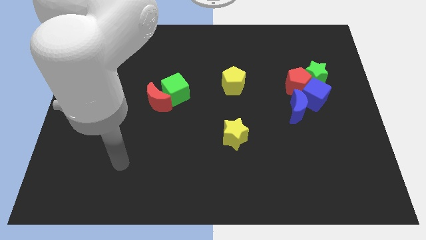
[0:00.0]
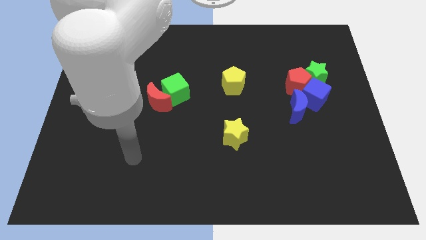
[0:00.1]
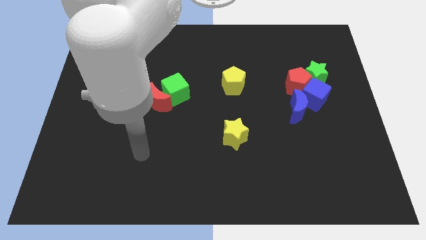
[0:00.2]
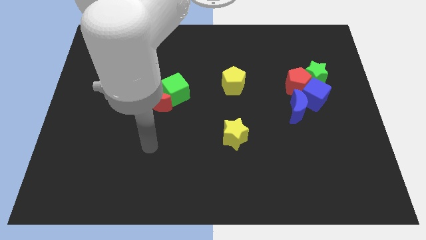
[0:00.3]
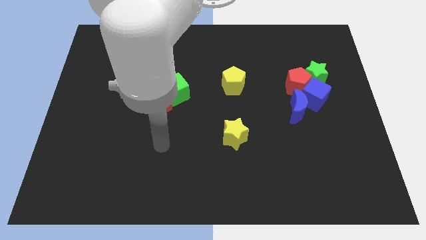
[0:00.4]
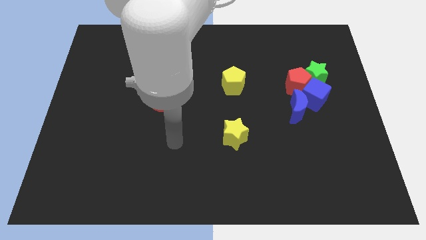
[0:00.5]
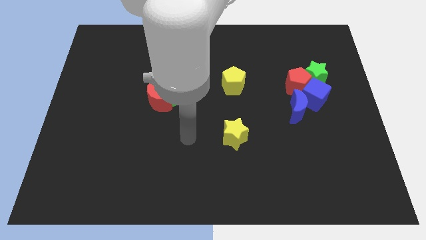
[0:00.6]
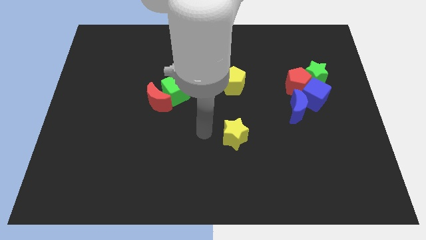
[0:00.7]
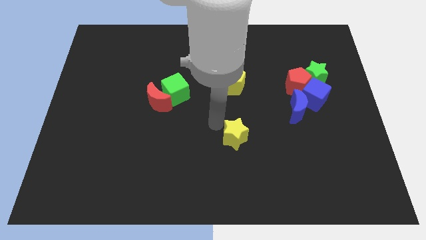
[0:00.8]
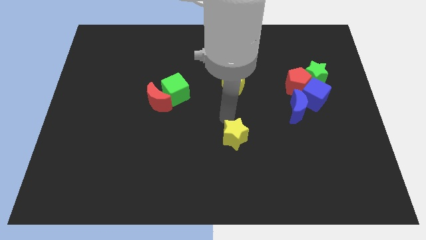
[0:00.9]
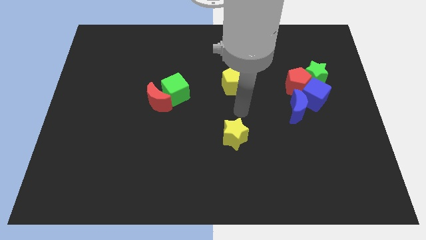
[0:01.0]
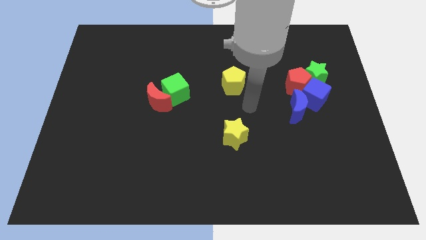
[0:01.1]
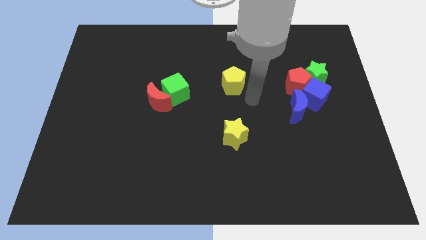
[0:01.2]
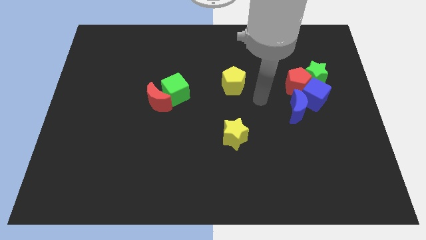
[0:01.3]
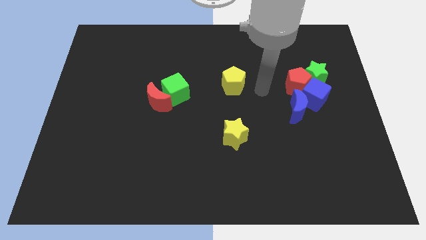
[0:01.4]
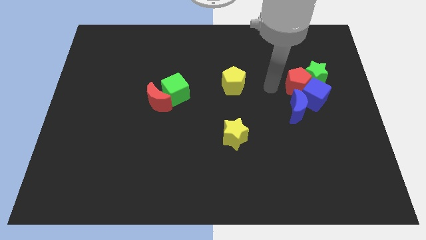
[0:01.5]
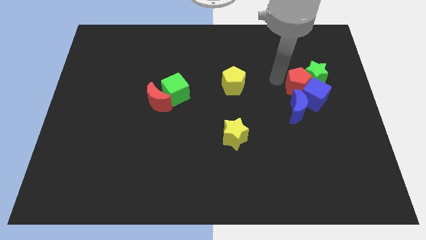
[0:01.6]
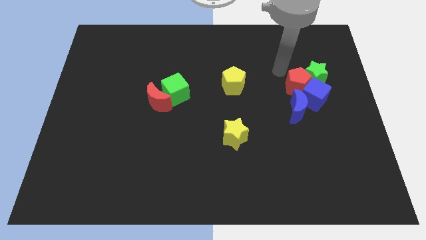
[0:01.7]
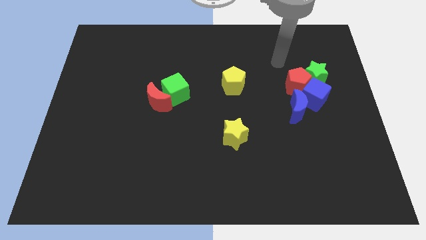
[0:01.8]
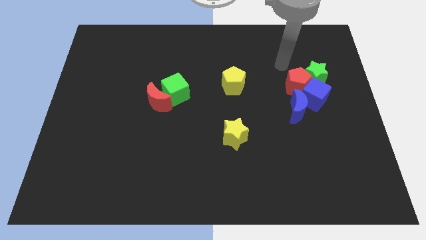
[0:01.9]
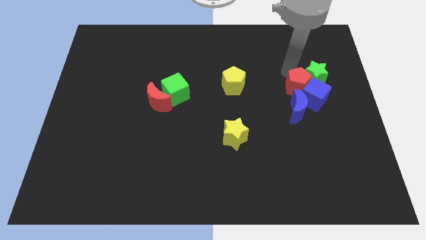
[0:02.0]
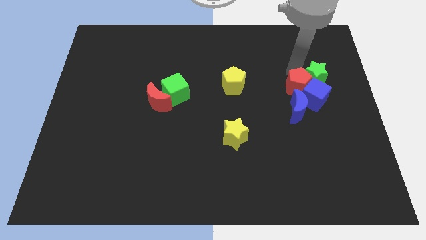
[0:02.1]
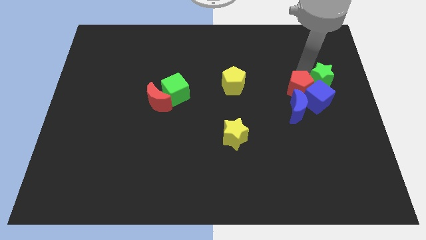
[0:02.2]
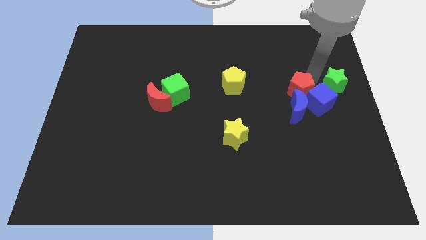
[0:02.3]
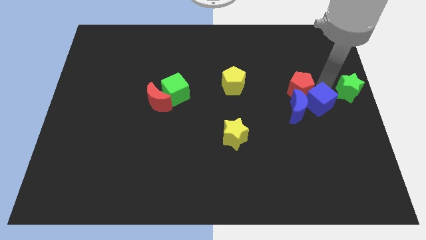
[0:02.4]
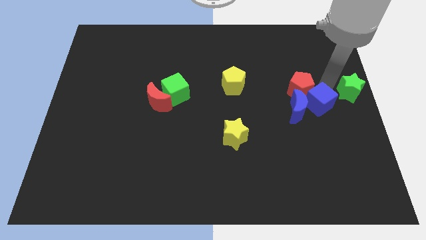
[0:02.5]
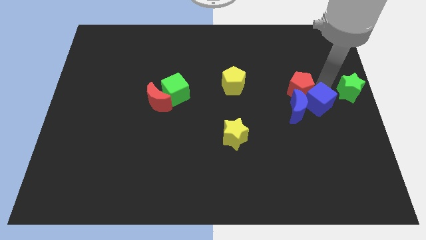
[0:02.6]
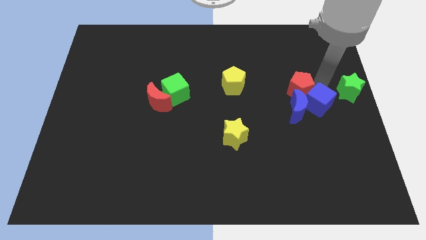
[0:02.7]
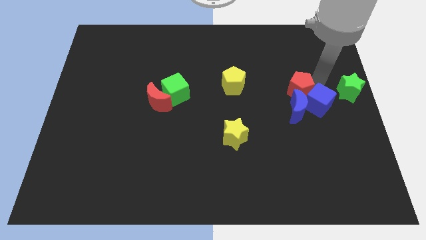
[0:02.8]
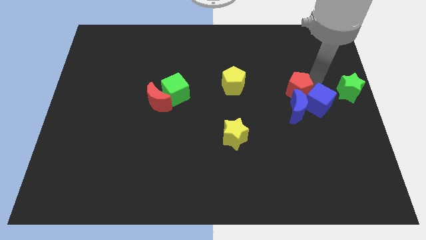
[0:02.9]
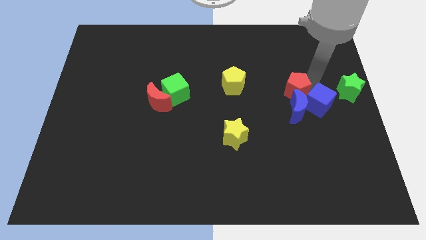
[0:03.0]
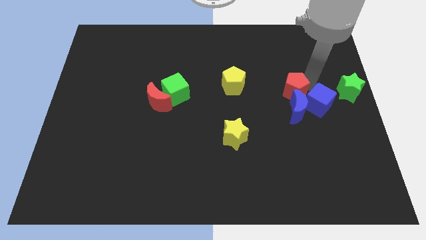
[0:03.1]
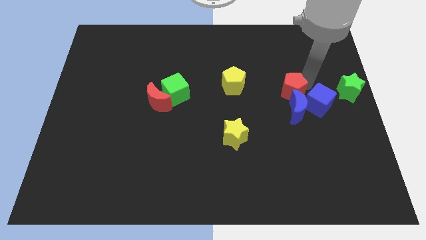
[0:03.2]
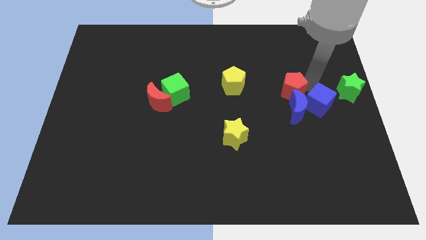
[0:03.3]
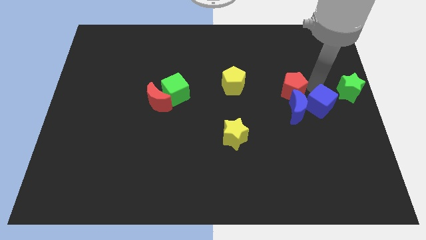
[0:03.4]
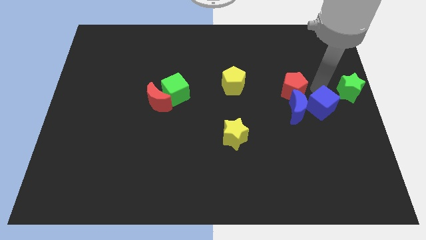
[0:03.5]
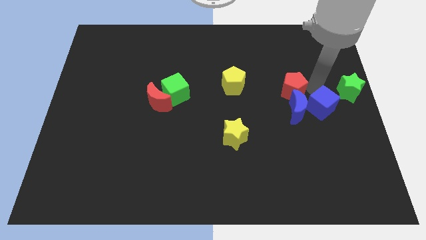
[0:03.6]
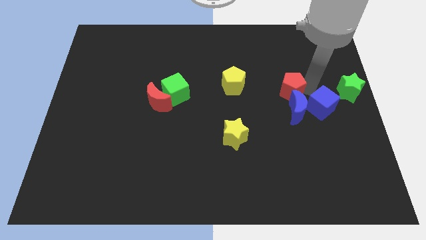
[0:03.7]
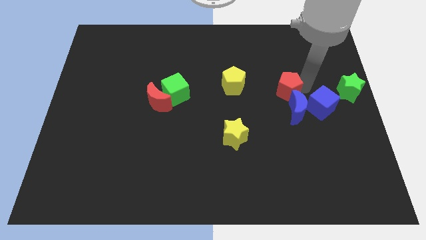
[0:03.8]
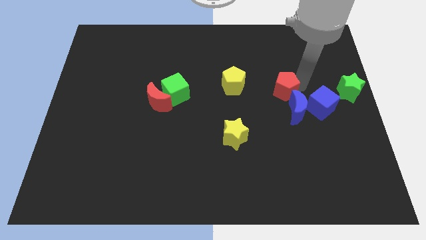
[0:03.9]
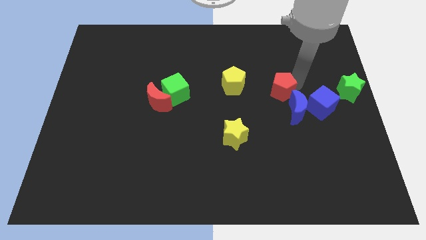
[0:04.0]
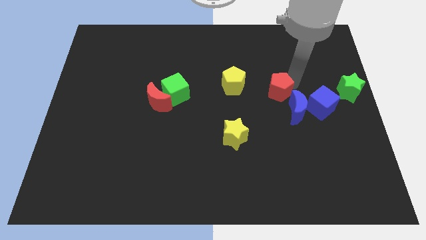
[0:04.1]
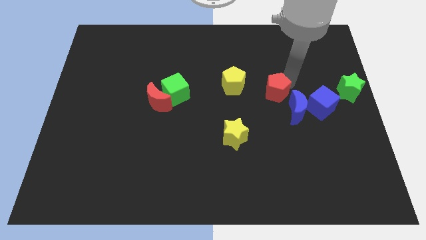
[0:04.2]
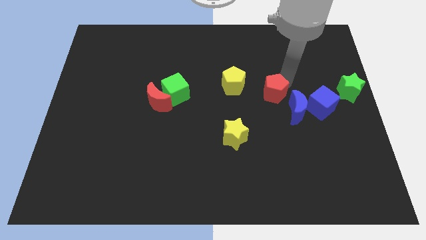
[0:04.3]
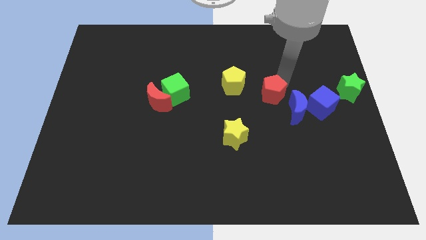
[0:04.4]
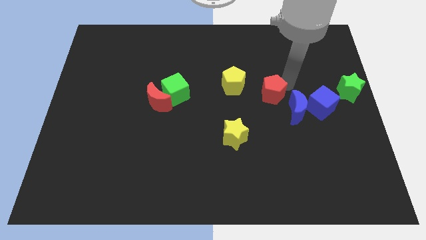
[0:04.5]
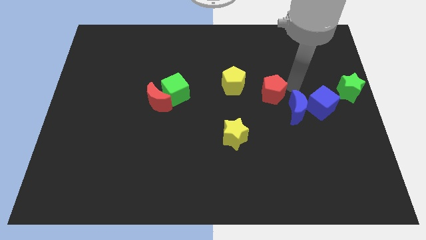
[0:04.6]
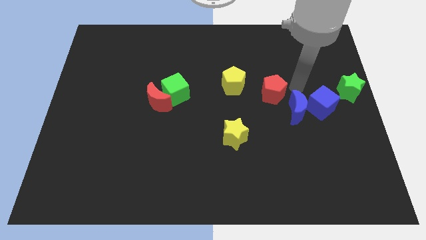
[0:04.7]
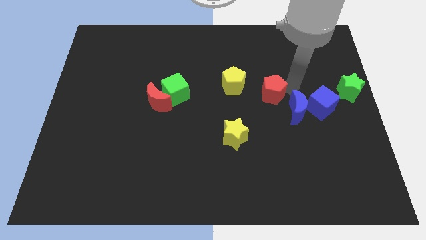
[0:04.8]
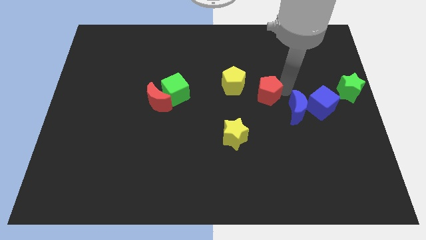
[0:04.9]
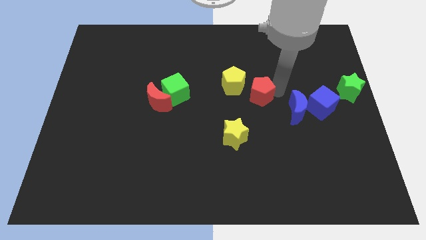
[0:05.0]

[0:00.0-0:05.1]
push the red pentagon to the middle of the board

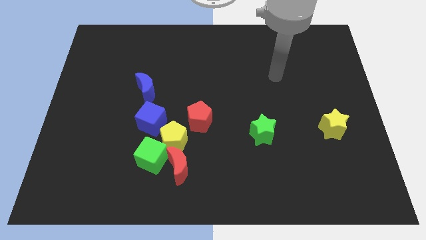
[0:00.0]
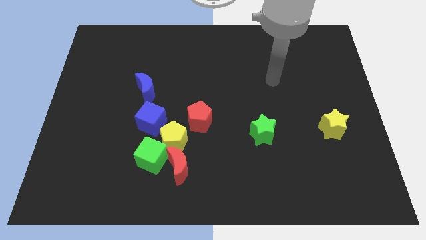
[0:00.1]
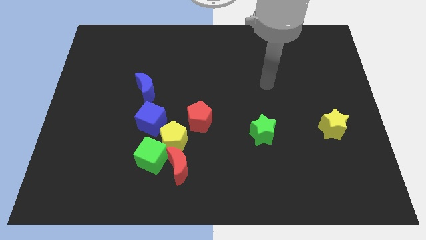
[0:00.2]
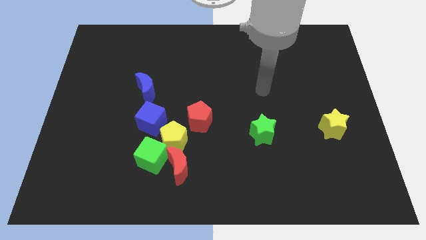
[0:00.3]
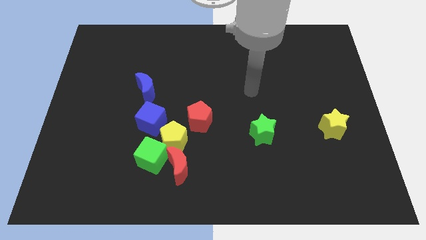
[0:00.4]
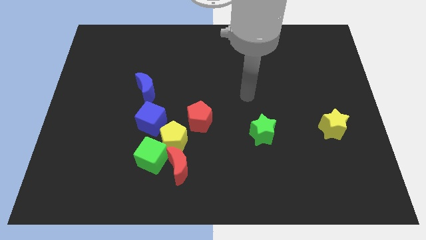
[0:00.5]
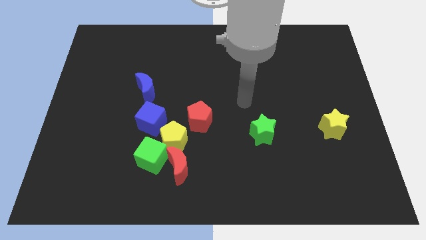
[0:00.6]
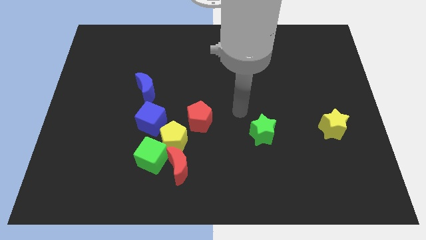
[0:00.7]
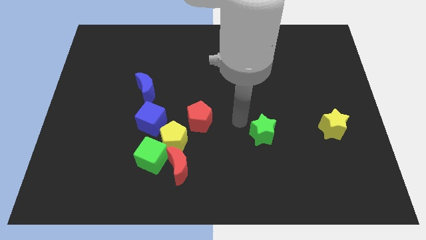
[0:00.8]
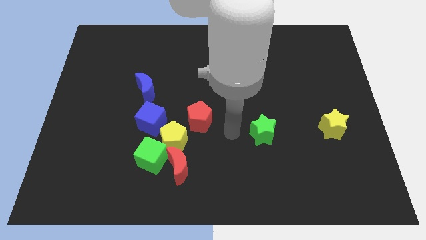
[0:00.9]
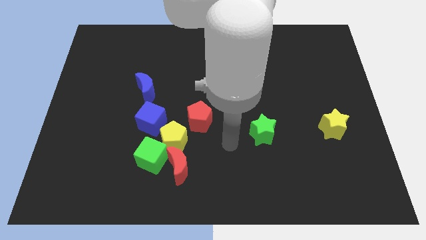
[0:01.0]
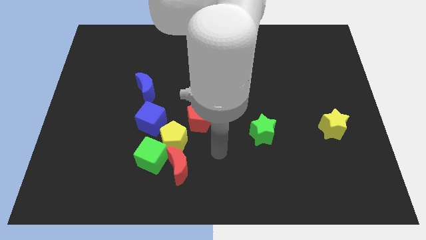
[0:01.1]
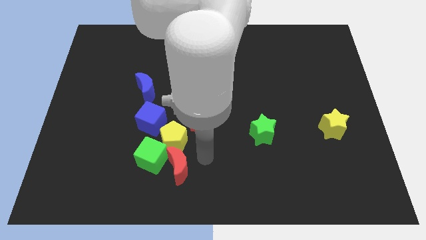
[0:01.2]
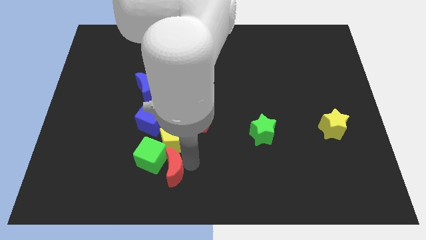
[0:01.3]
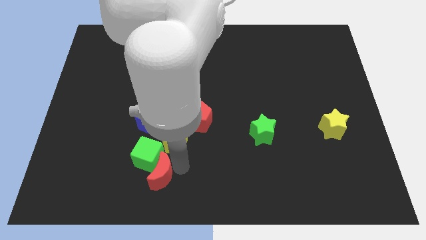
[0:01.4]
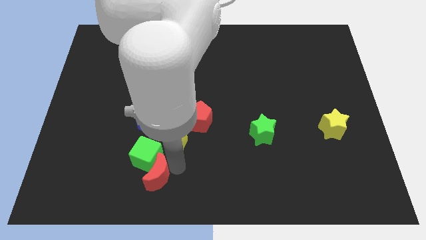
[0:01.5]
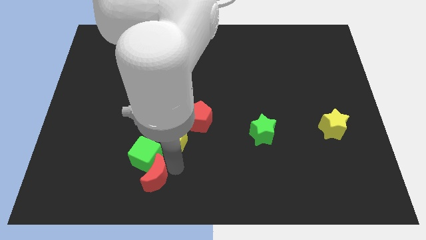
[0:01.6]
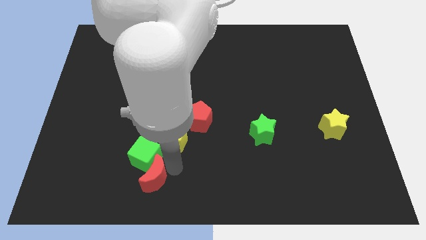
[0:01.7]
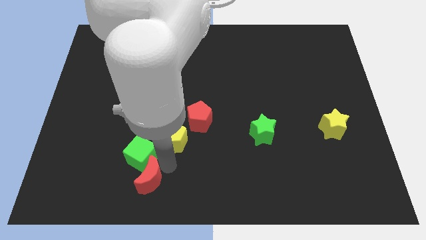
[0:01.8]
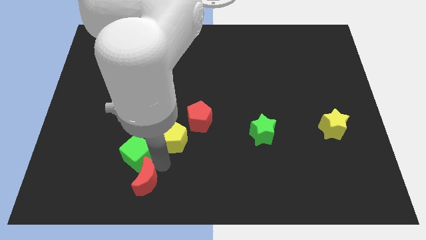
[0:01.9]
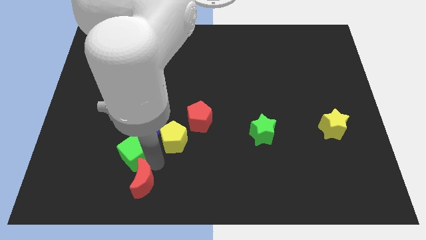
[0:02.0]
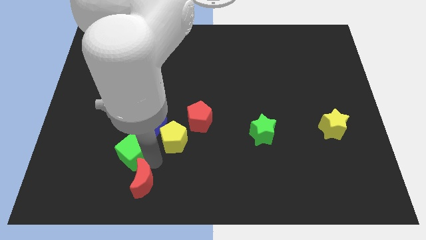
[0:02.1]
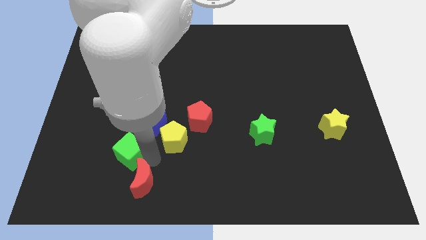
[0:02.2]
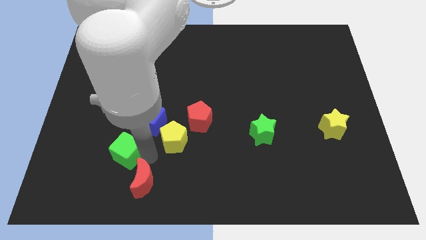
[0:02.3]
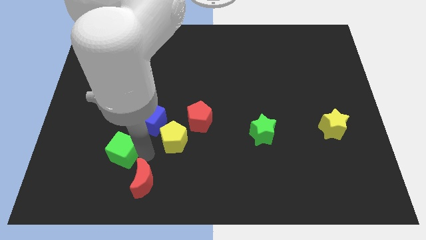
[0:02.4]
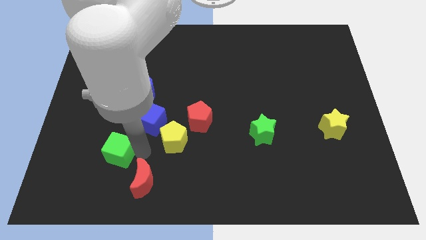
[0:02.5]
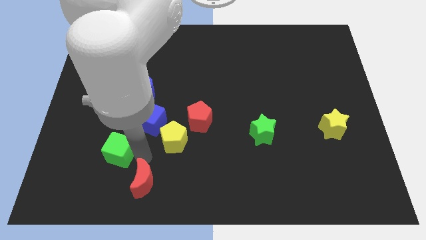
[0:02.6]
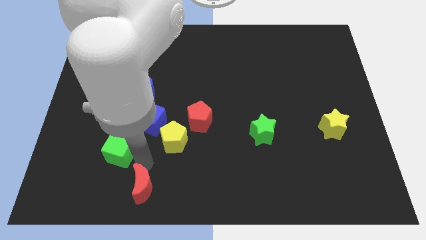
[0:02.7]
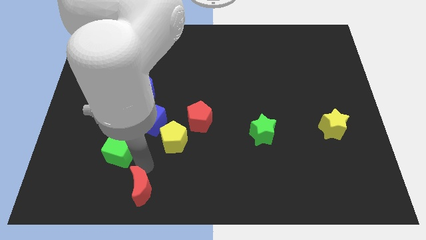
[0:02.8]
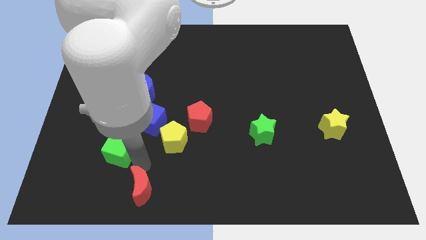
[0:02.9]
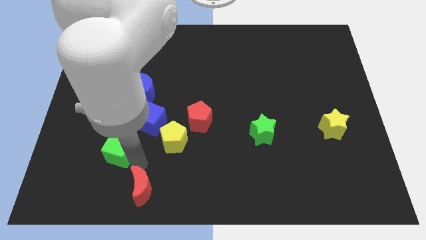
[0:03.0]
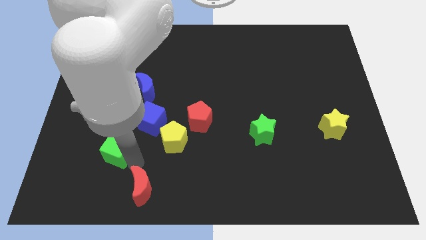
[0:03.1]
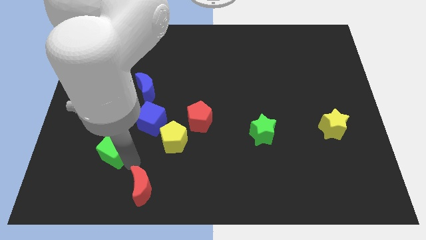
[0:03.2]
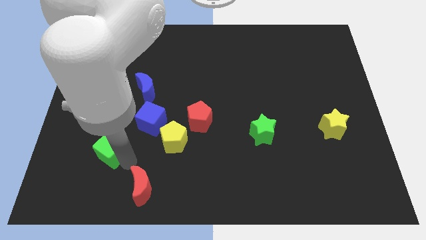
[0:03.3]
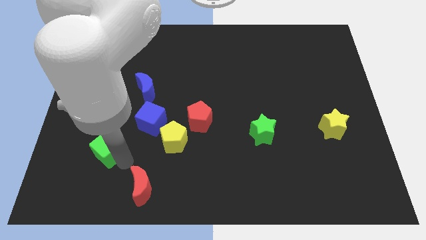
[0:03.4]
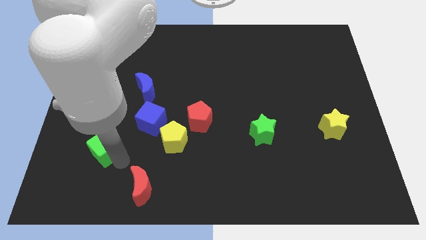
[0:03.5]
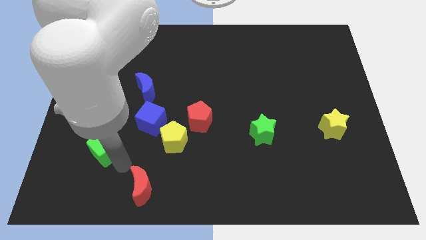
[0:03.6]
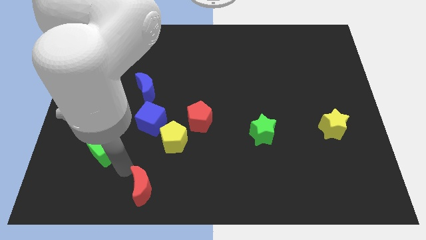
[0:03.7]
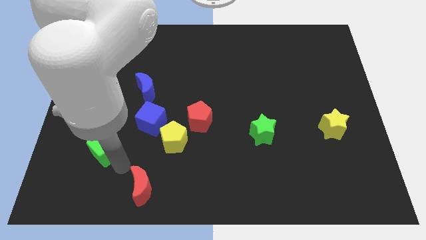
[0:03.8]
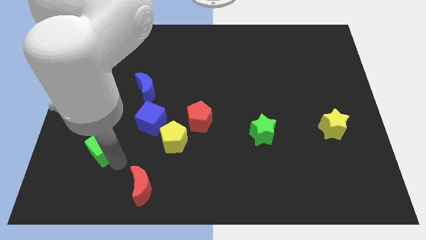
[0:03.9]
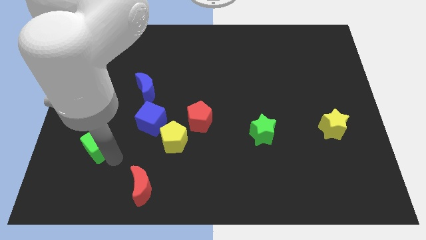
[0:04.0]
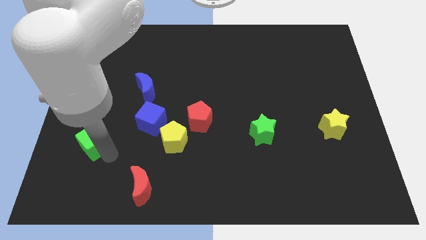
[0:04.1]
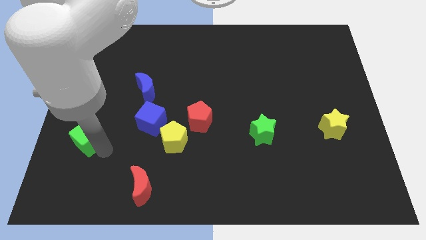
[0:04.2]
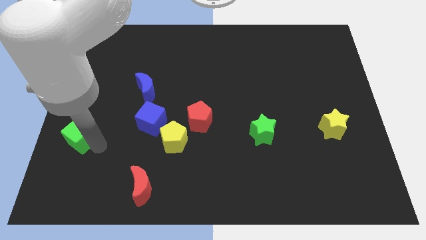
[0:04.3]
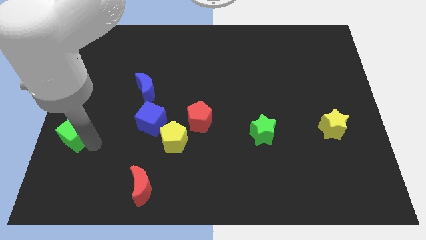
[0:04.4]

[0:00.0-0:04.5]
push the green cube to the center left
